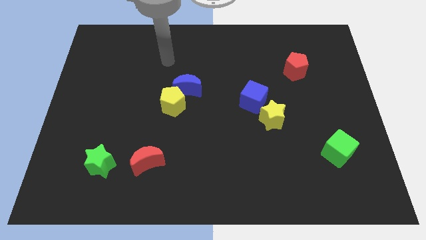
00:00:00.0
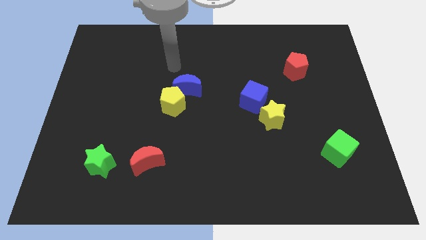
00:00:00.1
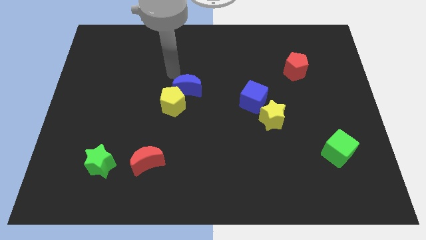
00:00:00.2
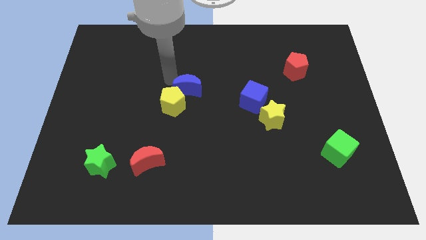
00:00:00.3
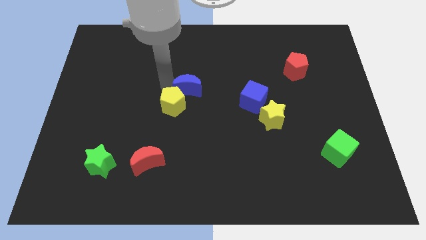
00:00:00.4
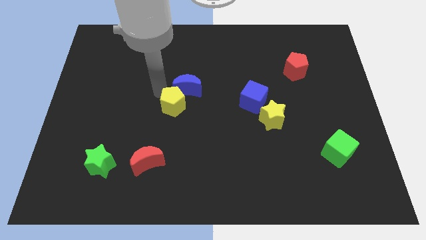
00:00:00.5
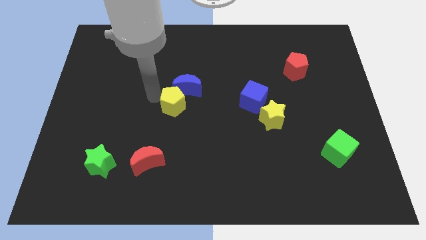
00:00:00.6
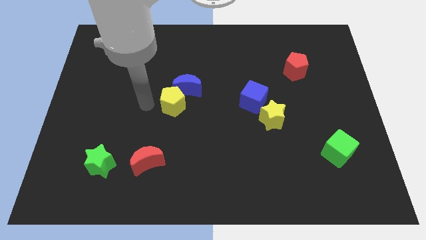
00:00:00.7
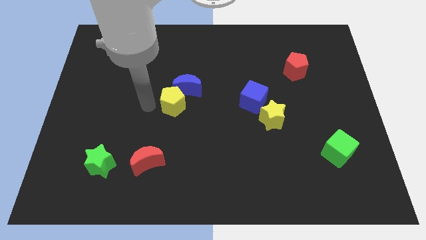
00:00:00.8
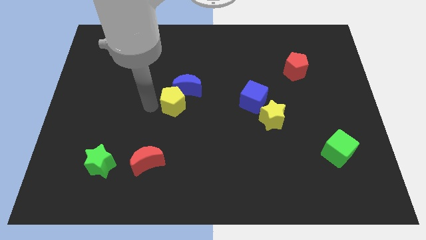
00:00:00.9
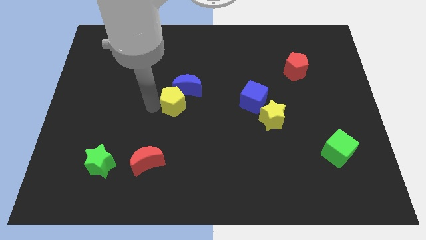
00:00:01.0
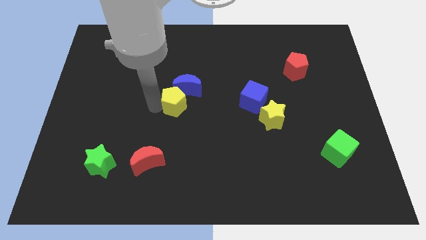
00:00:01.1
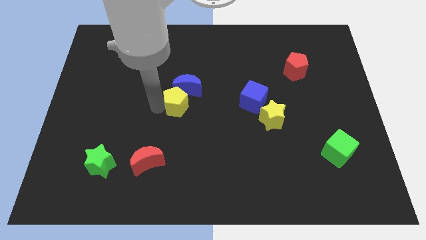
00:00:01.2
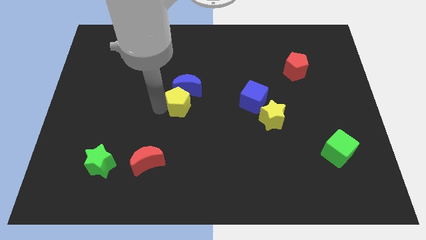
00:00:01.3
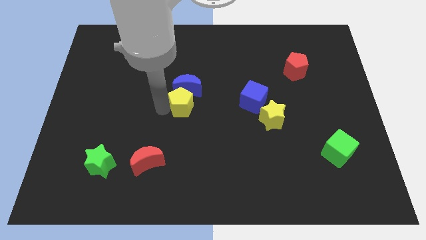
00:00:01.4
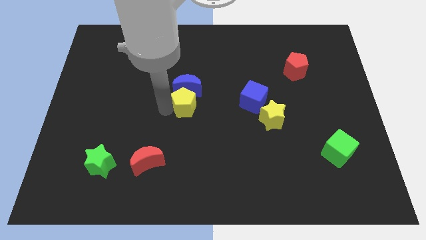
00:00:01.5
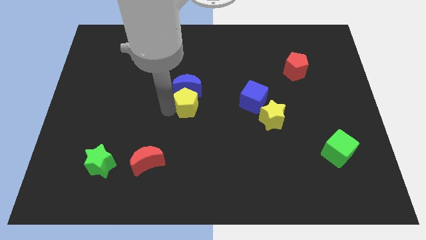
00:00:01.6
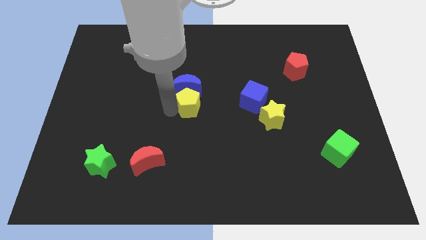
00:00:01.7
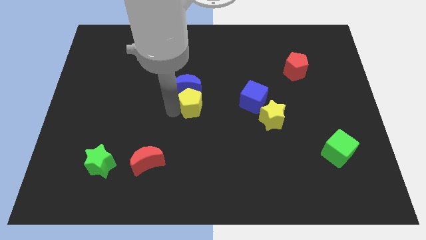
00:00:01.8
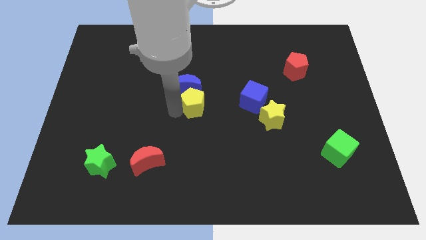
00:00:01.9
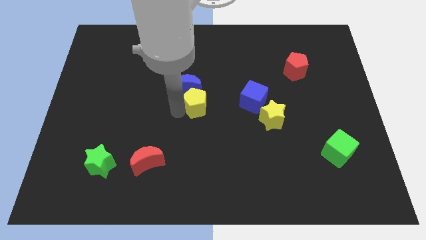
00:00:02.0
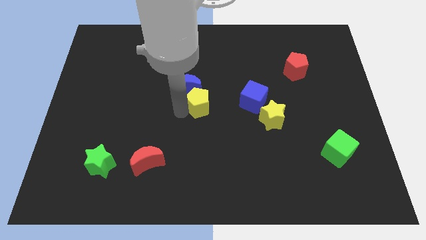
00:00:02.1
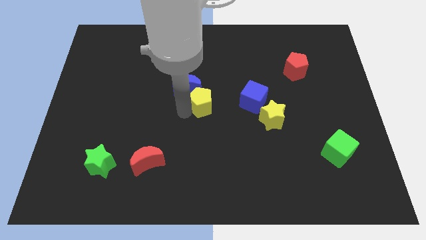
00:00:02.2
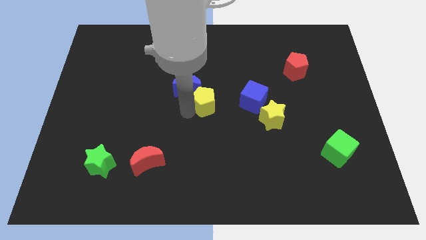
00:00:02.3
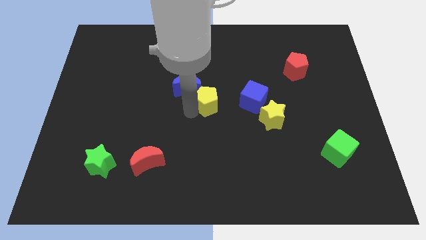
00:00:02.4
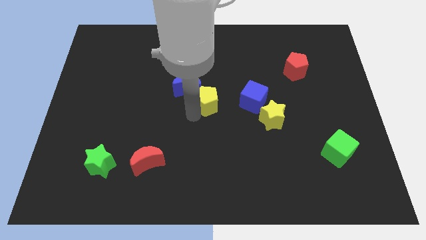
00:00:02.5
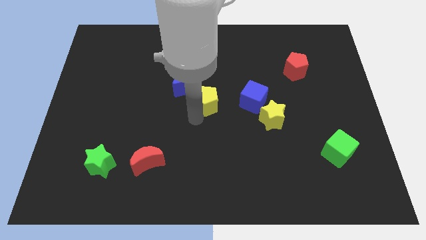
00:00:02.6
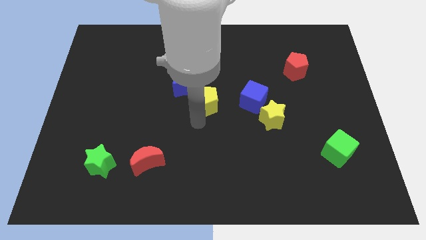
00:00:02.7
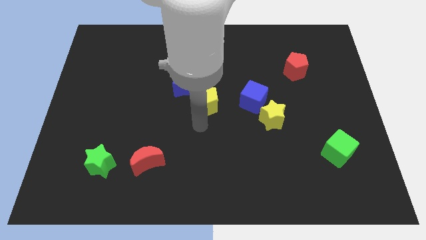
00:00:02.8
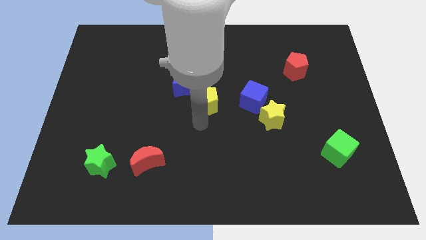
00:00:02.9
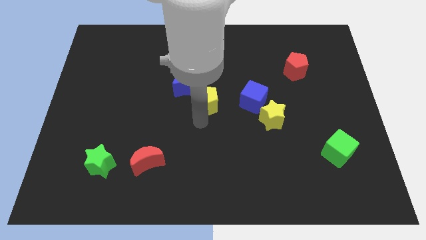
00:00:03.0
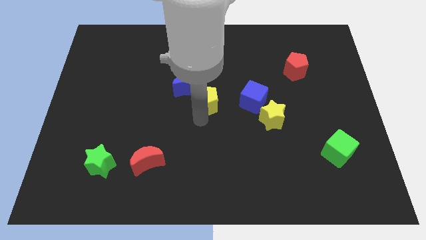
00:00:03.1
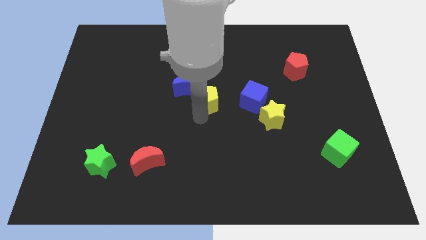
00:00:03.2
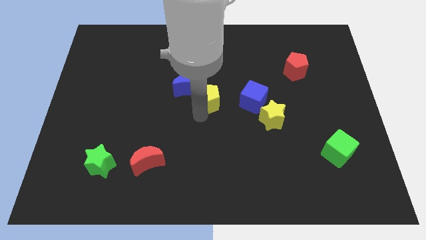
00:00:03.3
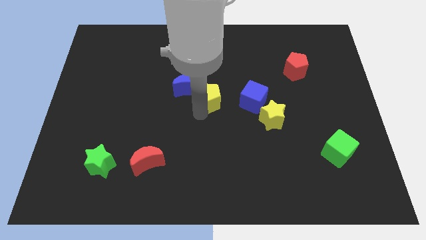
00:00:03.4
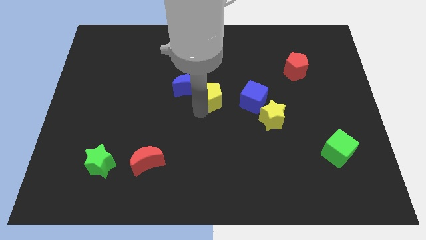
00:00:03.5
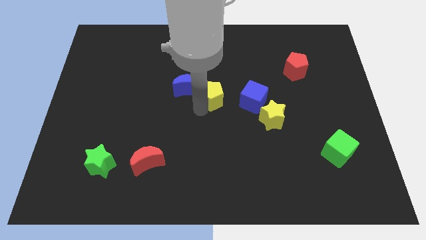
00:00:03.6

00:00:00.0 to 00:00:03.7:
push the yellow pentagon diagonally up and to the right somewhat

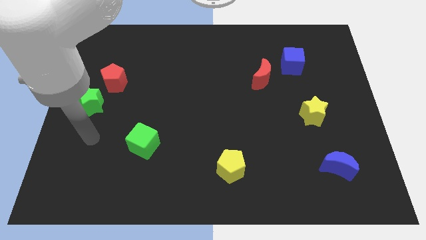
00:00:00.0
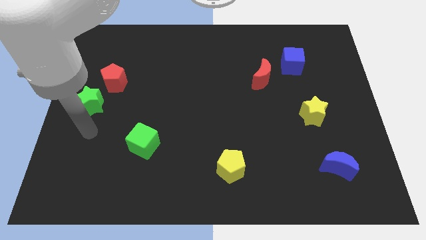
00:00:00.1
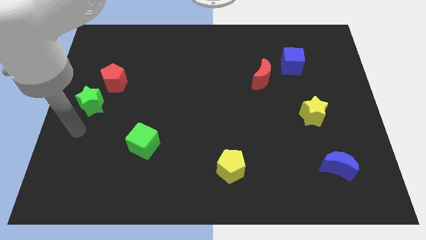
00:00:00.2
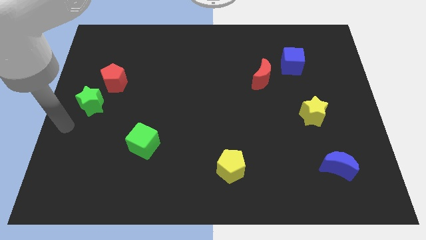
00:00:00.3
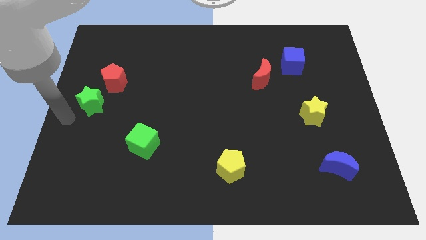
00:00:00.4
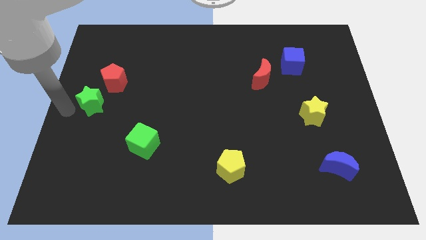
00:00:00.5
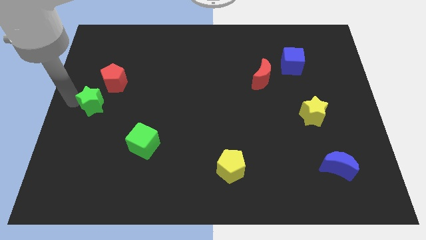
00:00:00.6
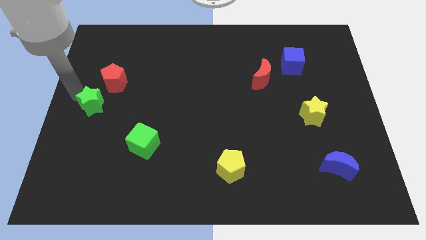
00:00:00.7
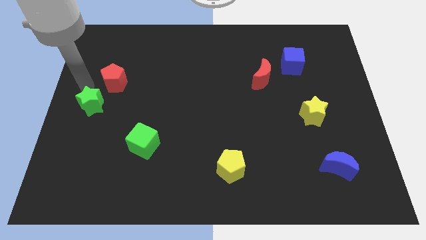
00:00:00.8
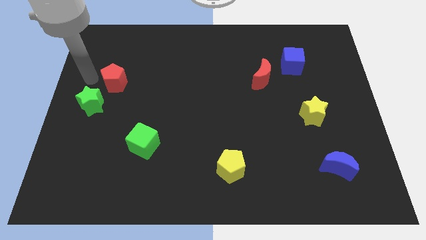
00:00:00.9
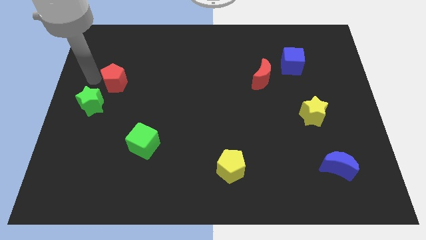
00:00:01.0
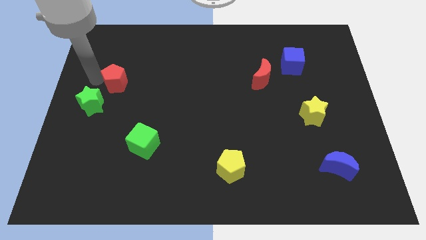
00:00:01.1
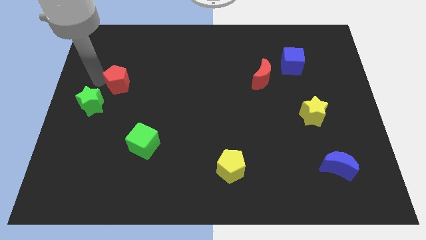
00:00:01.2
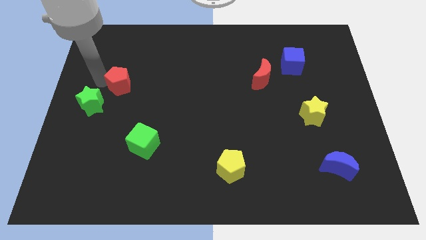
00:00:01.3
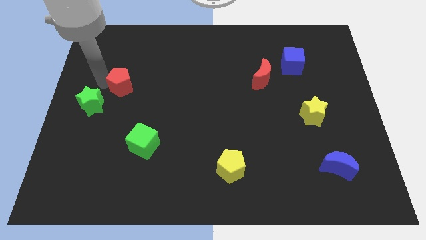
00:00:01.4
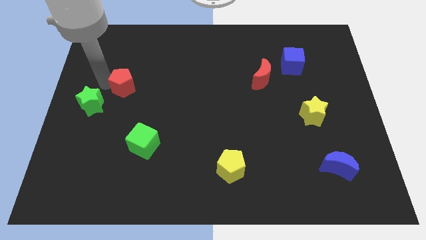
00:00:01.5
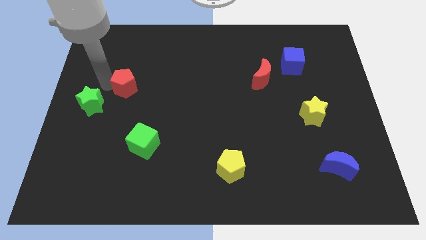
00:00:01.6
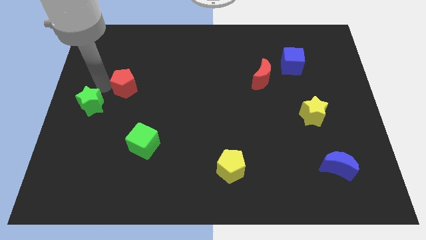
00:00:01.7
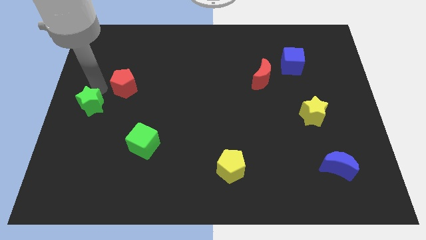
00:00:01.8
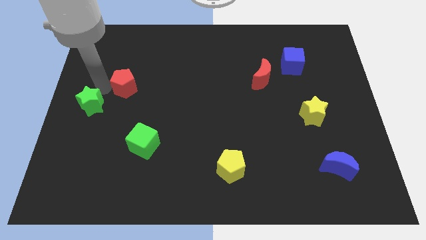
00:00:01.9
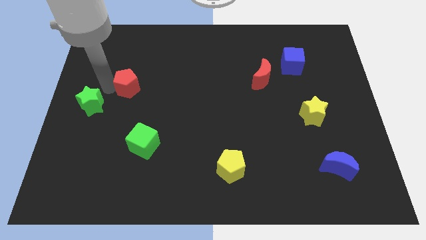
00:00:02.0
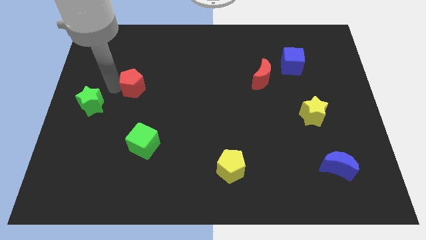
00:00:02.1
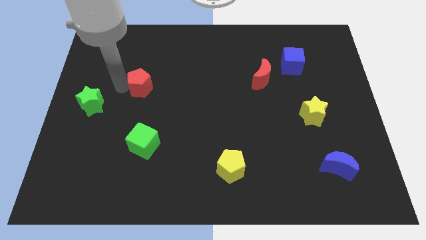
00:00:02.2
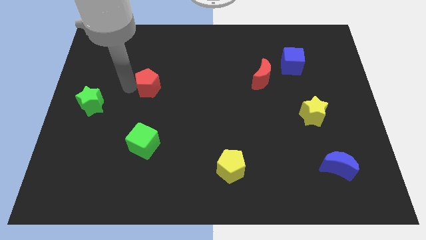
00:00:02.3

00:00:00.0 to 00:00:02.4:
move the red pentagon to the right slightly

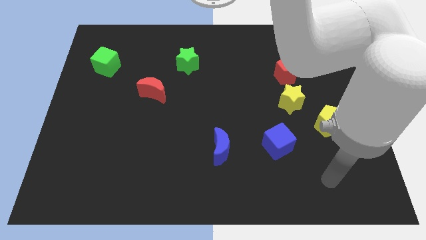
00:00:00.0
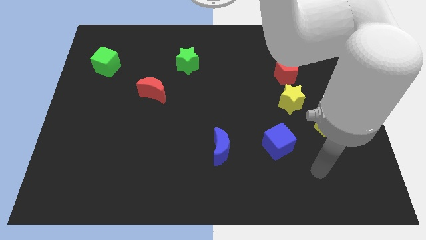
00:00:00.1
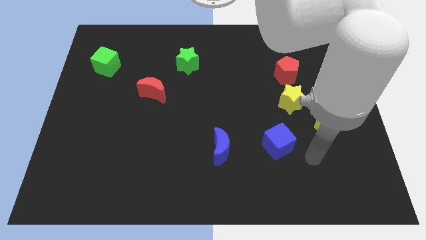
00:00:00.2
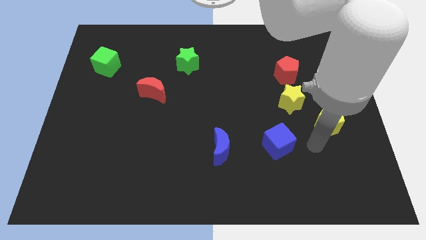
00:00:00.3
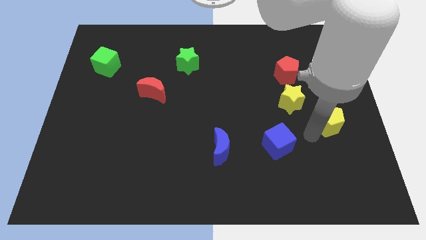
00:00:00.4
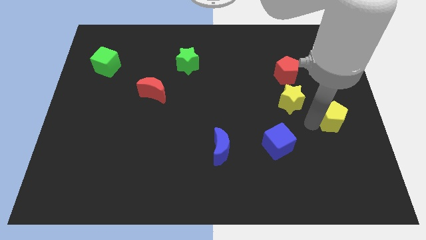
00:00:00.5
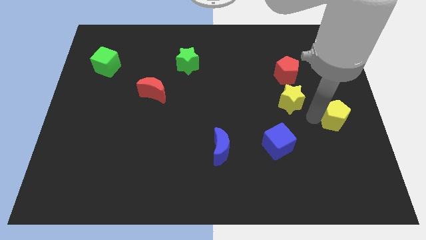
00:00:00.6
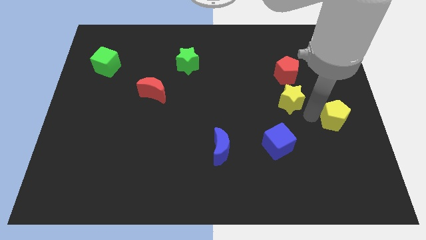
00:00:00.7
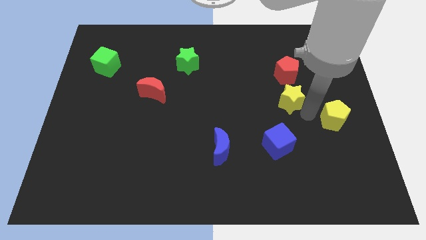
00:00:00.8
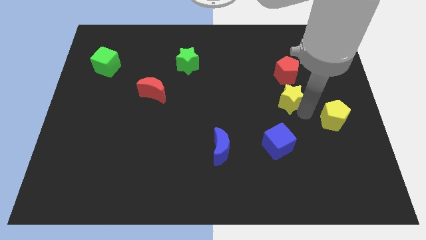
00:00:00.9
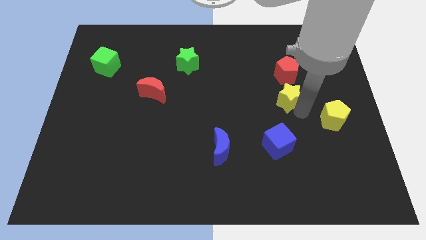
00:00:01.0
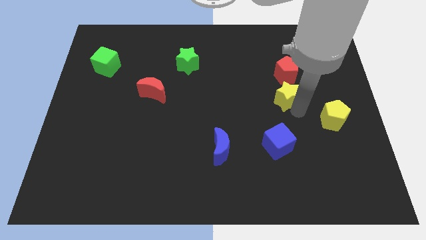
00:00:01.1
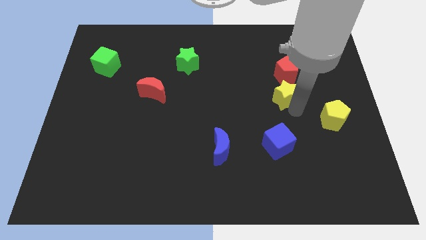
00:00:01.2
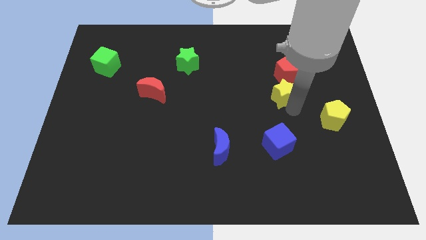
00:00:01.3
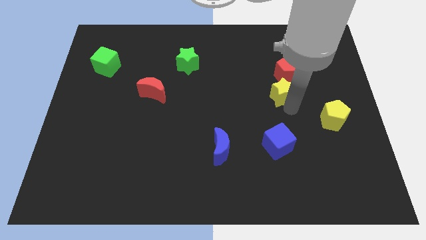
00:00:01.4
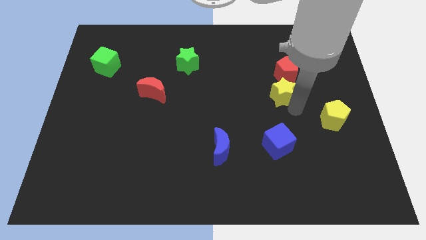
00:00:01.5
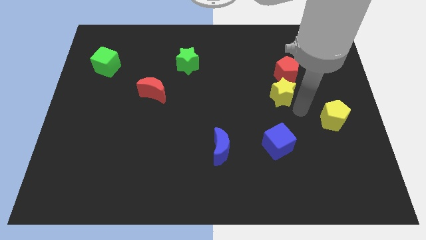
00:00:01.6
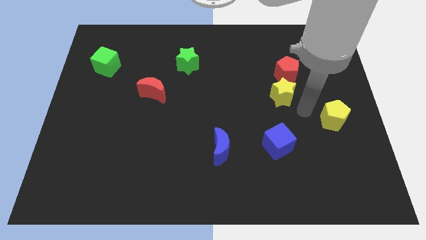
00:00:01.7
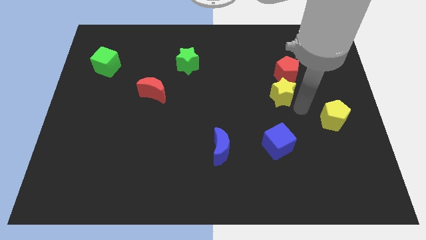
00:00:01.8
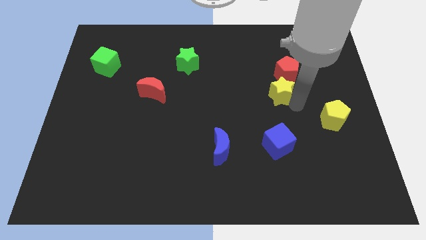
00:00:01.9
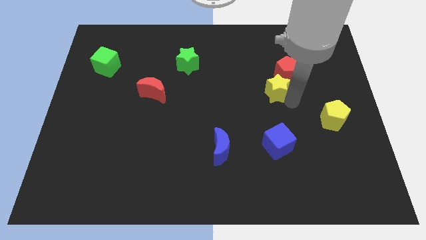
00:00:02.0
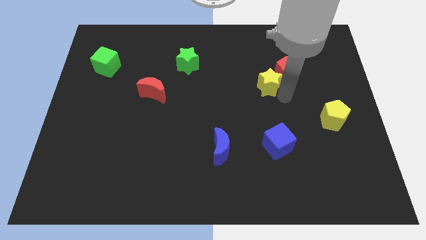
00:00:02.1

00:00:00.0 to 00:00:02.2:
slightly move the yellow star upwards and left

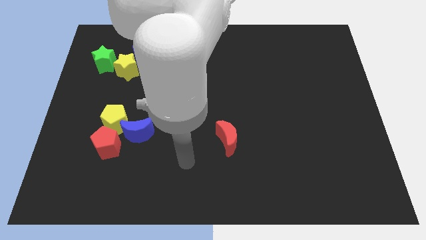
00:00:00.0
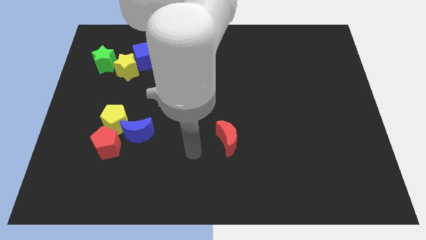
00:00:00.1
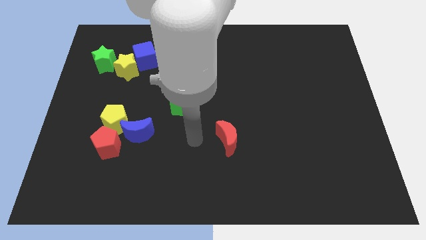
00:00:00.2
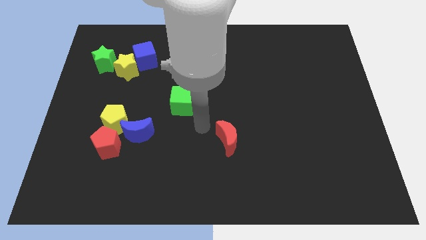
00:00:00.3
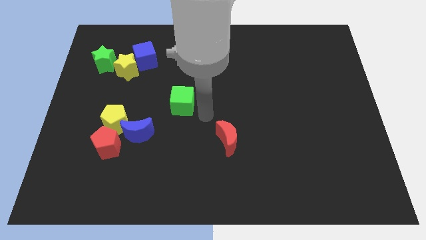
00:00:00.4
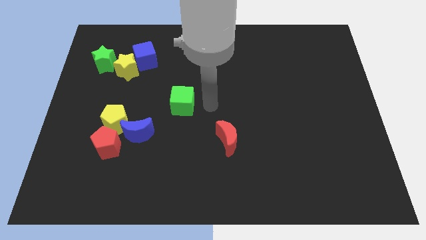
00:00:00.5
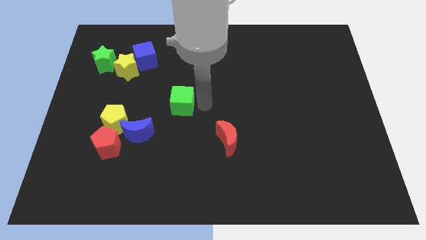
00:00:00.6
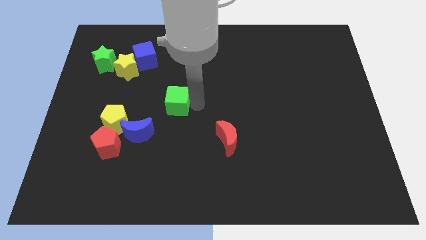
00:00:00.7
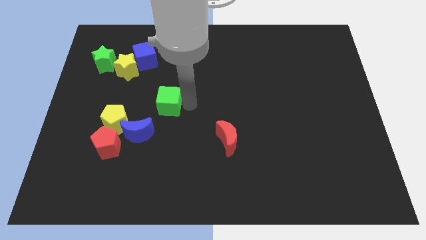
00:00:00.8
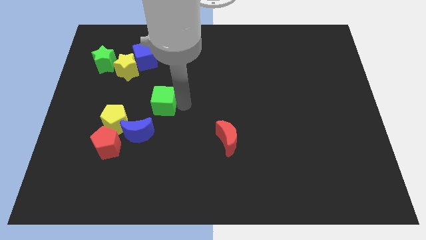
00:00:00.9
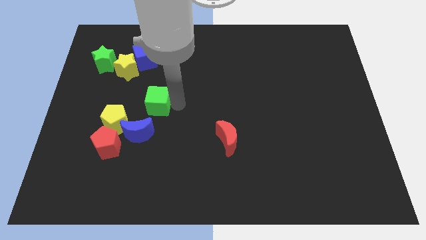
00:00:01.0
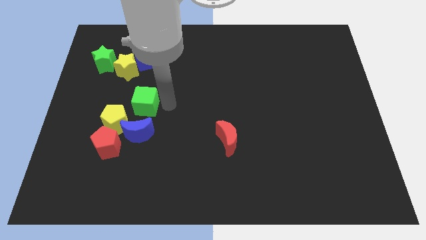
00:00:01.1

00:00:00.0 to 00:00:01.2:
slightly slide the green cube left
